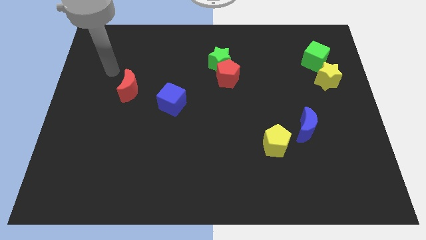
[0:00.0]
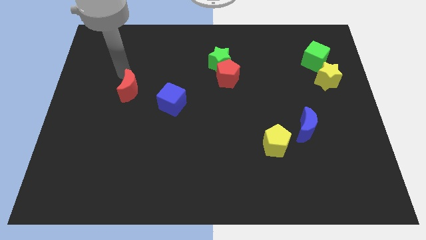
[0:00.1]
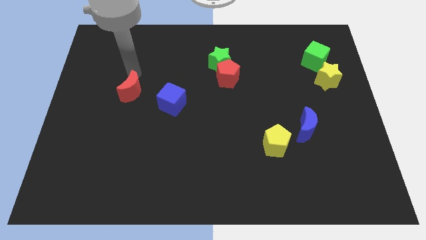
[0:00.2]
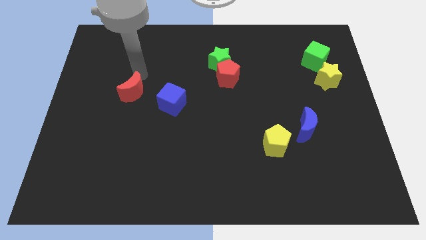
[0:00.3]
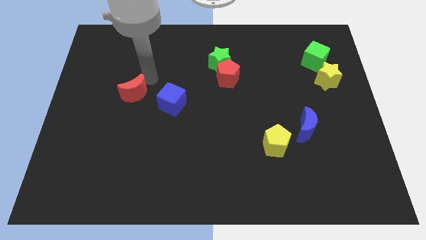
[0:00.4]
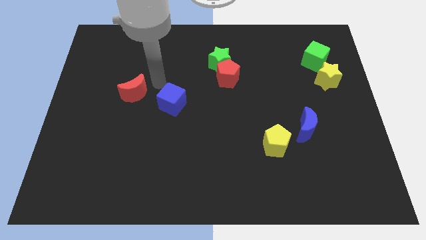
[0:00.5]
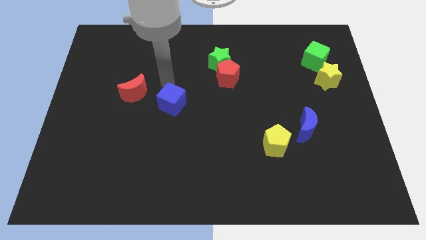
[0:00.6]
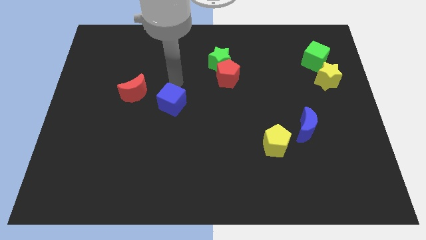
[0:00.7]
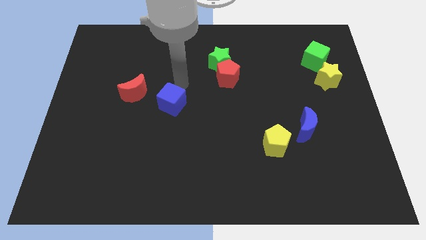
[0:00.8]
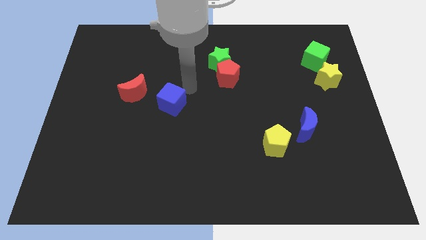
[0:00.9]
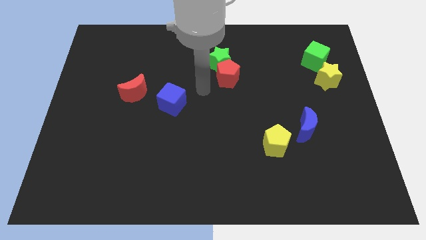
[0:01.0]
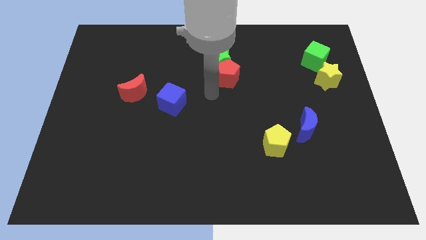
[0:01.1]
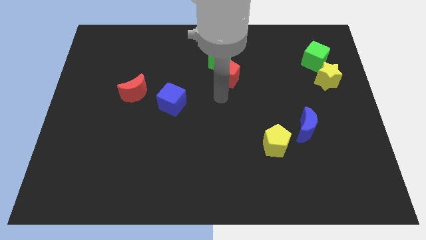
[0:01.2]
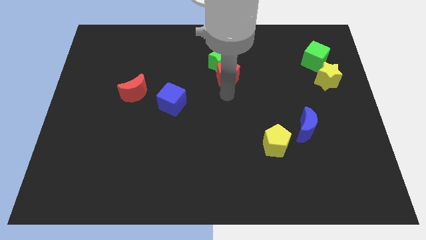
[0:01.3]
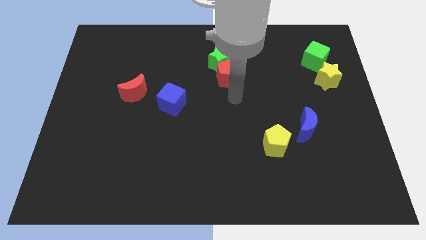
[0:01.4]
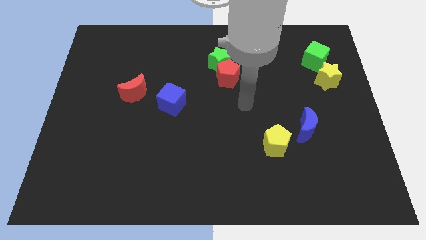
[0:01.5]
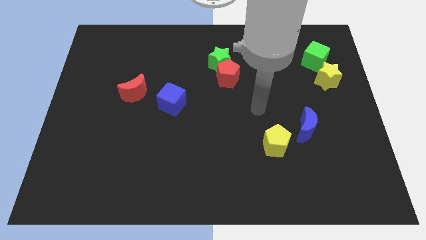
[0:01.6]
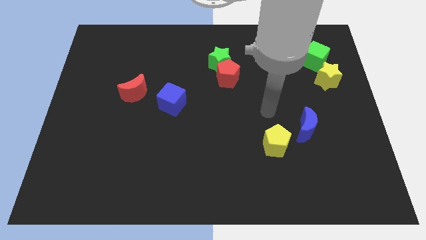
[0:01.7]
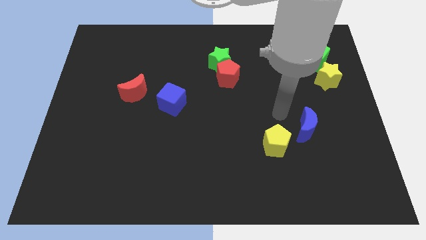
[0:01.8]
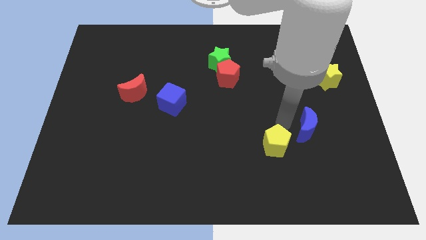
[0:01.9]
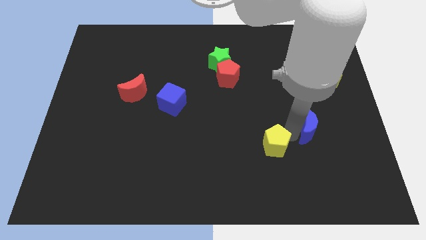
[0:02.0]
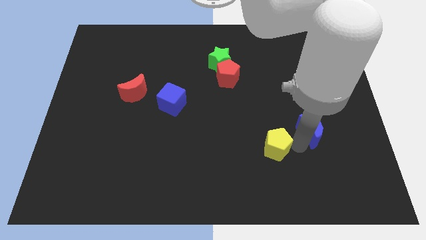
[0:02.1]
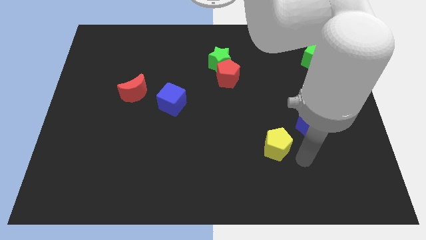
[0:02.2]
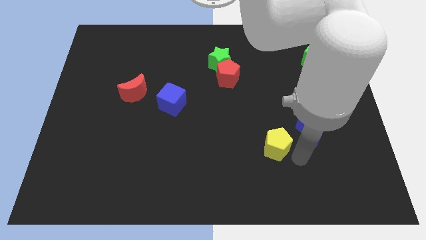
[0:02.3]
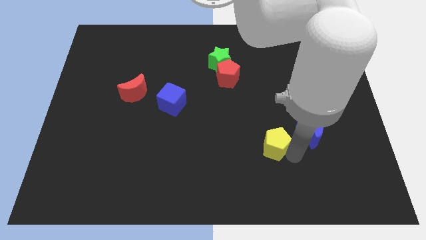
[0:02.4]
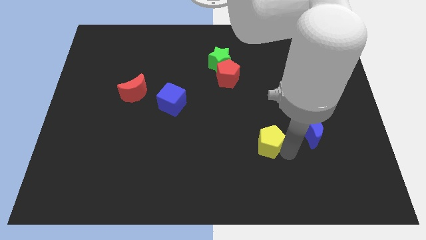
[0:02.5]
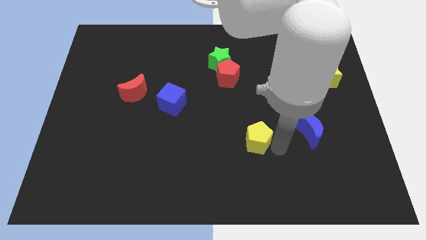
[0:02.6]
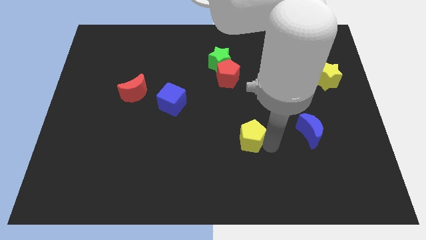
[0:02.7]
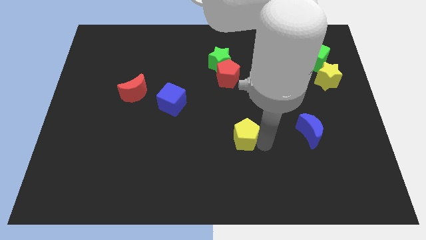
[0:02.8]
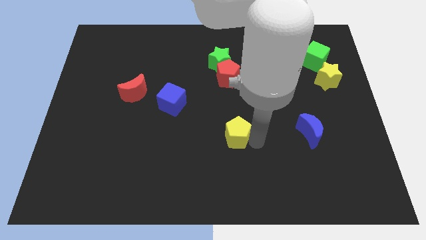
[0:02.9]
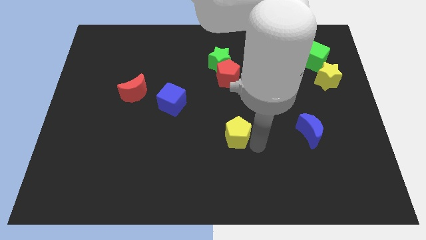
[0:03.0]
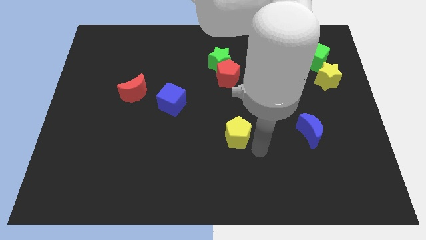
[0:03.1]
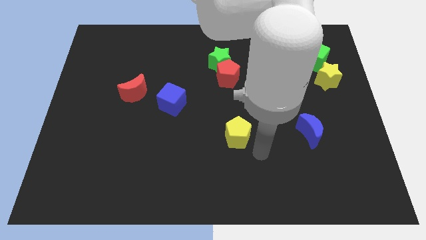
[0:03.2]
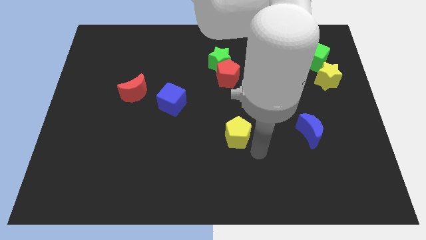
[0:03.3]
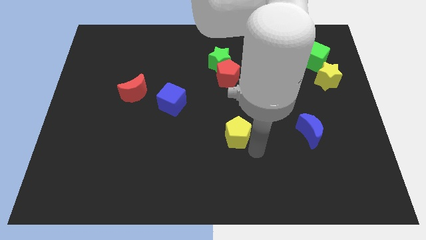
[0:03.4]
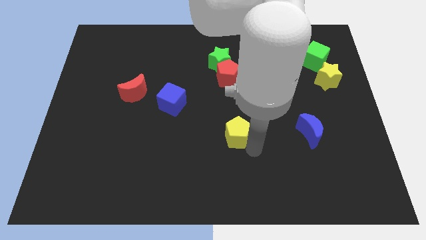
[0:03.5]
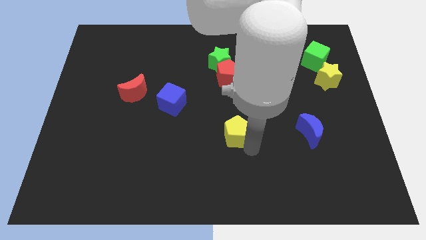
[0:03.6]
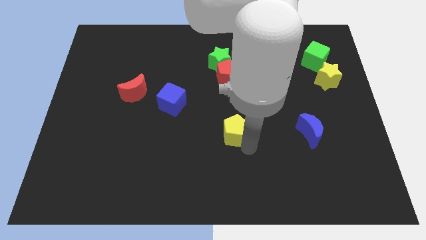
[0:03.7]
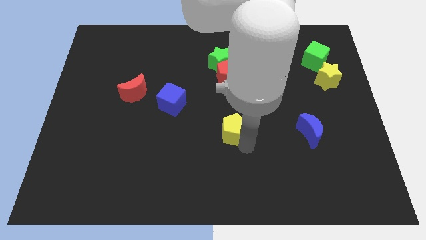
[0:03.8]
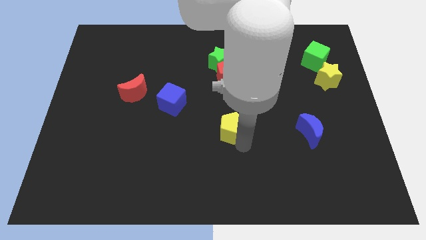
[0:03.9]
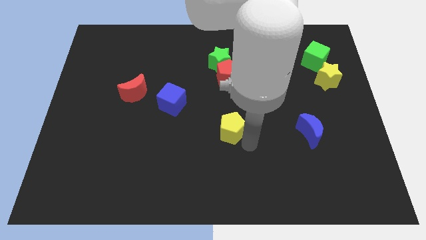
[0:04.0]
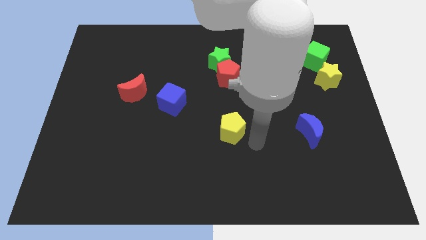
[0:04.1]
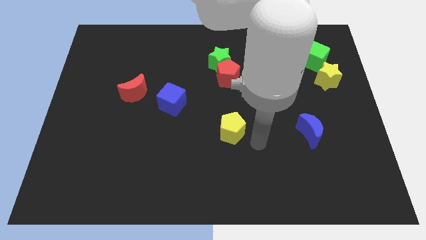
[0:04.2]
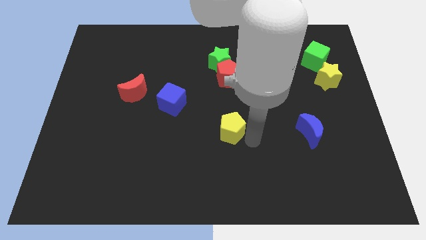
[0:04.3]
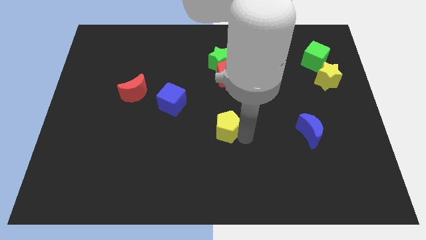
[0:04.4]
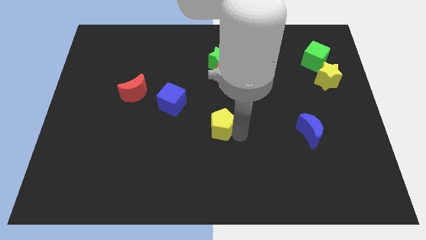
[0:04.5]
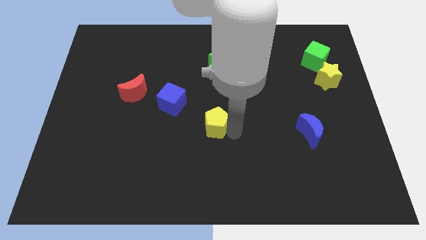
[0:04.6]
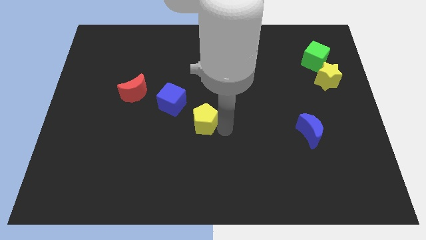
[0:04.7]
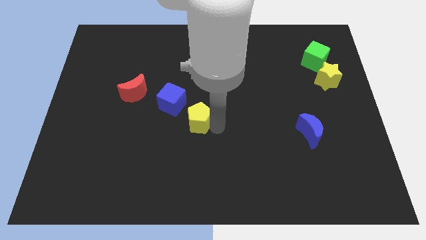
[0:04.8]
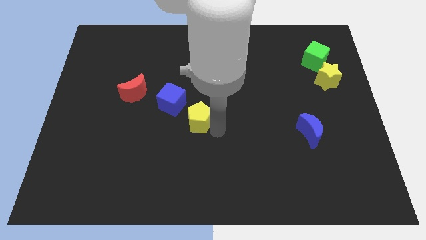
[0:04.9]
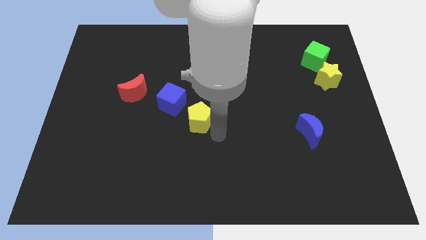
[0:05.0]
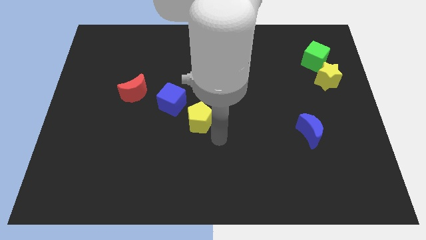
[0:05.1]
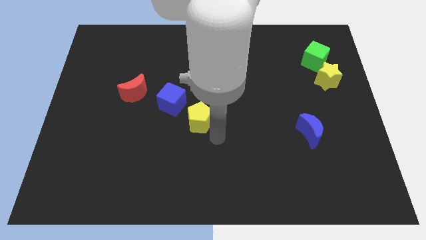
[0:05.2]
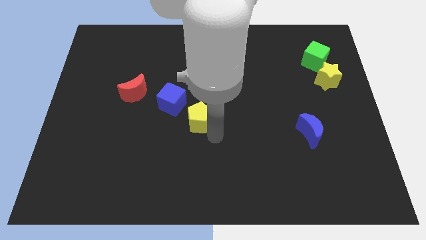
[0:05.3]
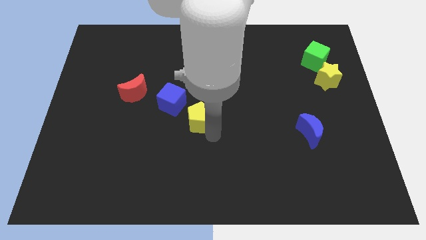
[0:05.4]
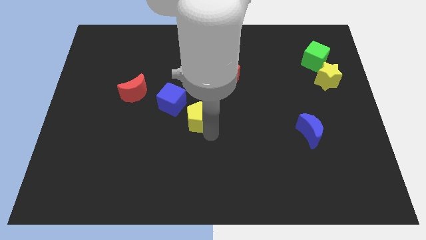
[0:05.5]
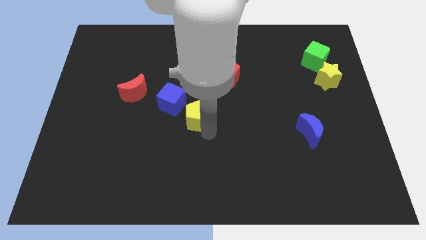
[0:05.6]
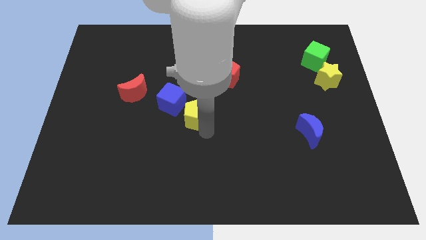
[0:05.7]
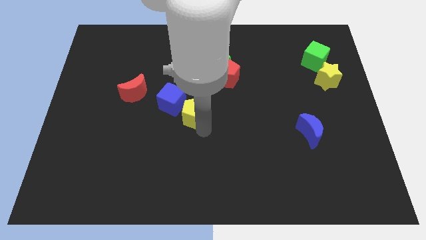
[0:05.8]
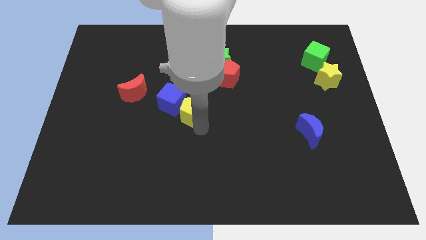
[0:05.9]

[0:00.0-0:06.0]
slide the yellow pentagon next to the blue cube

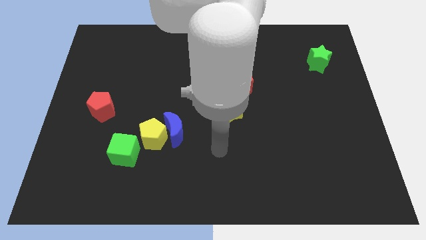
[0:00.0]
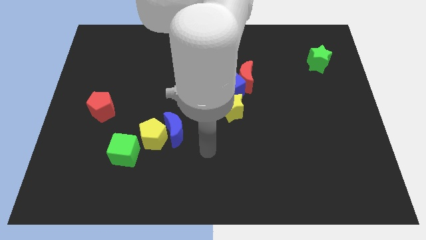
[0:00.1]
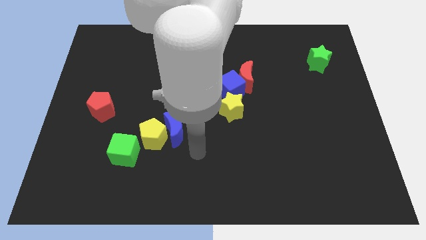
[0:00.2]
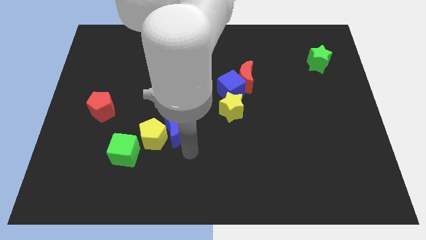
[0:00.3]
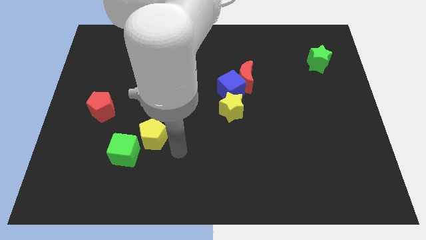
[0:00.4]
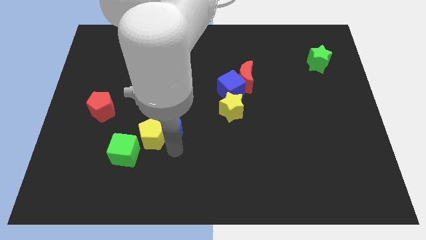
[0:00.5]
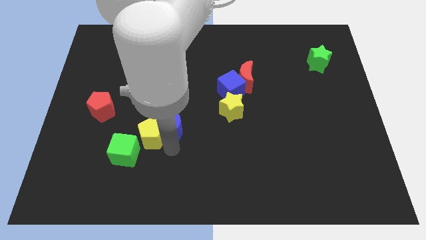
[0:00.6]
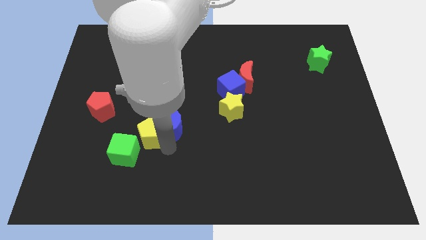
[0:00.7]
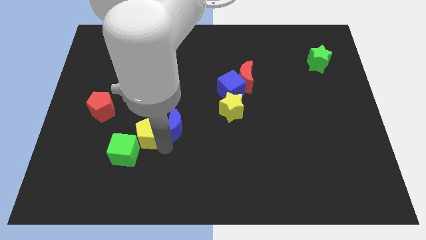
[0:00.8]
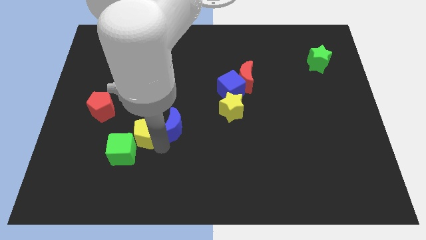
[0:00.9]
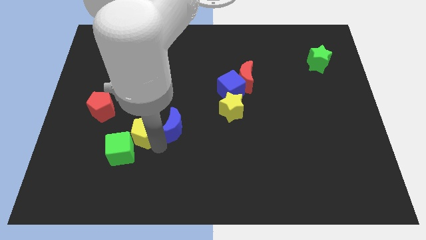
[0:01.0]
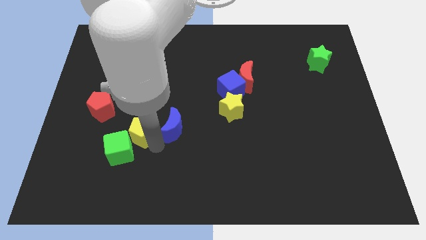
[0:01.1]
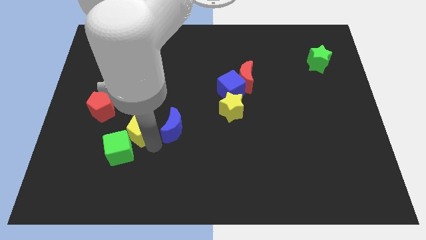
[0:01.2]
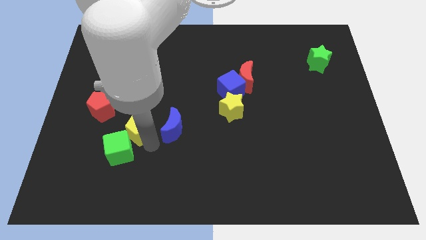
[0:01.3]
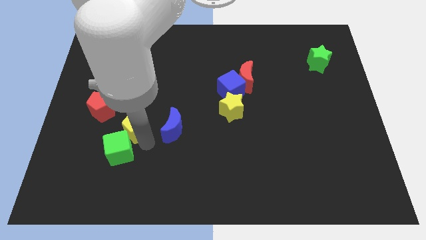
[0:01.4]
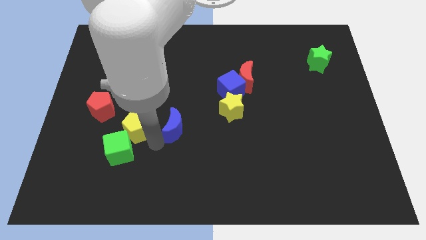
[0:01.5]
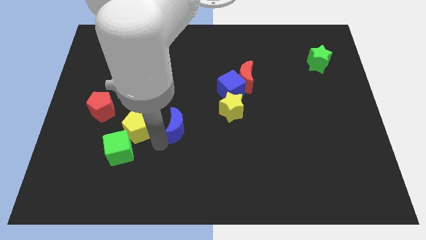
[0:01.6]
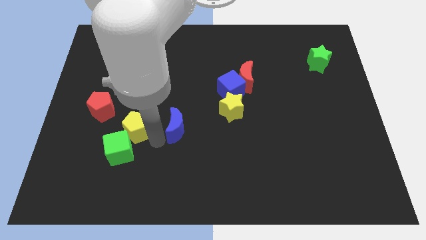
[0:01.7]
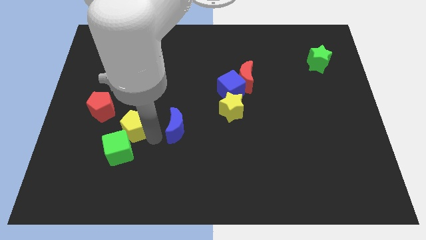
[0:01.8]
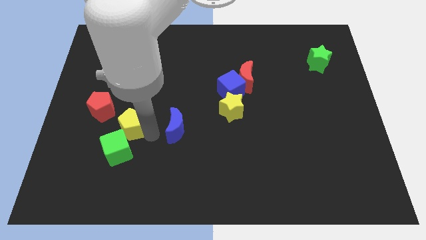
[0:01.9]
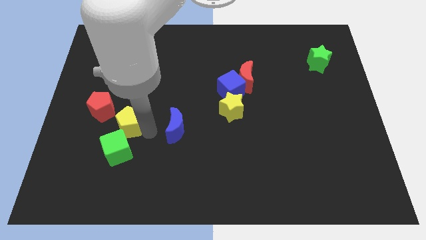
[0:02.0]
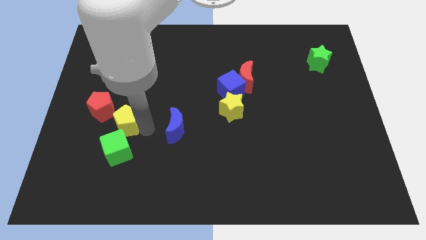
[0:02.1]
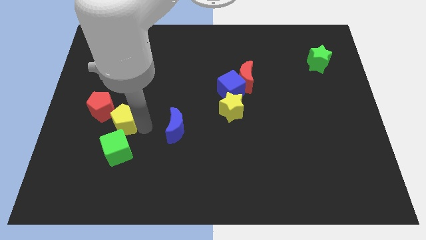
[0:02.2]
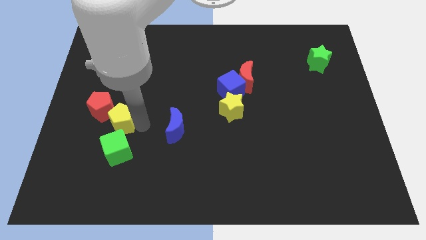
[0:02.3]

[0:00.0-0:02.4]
put the yellow pentagon close to the red pentagon
